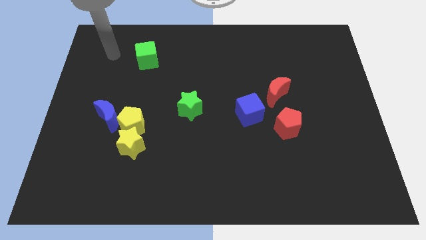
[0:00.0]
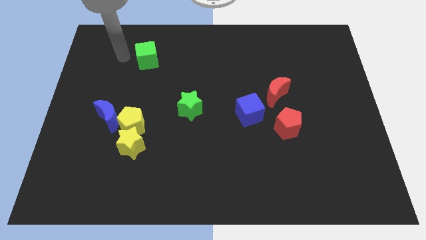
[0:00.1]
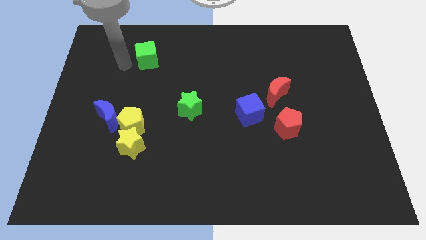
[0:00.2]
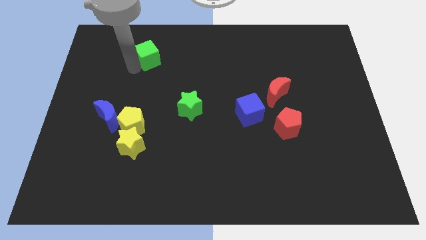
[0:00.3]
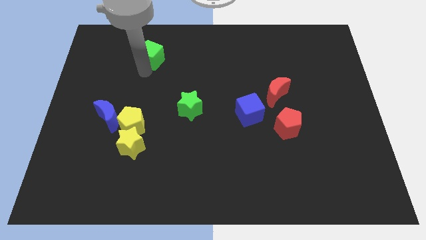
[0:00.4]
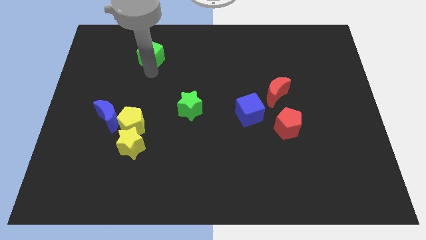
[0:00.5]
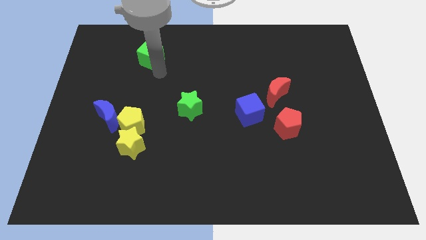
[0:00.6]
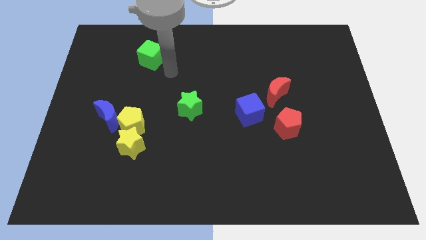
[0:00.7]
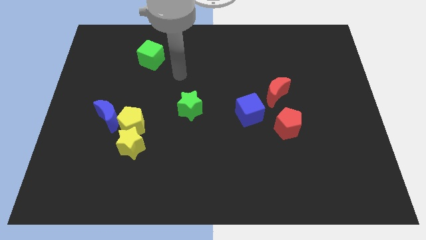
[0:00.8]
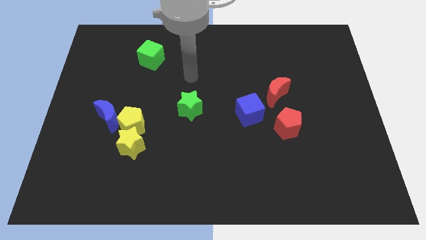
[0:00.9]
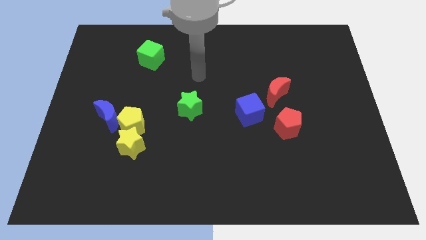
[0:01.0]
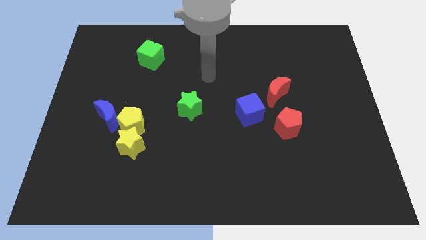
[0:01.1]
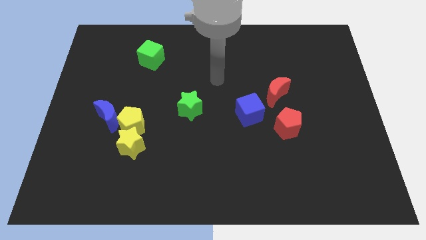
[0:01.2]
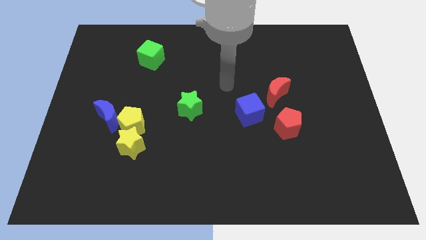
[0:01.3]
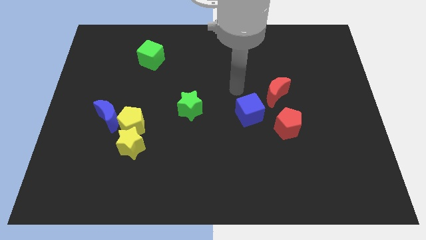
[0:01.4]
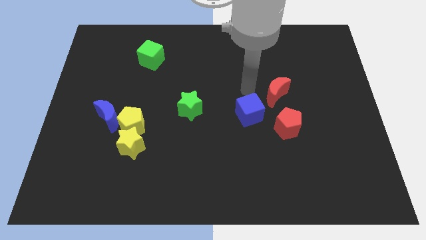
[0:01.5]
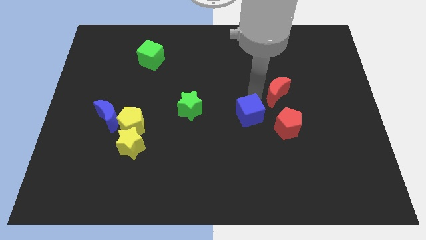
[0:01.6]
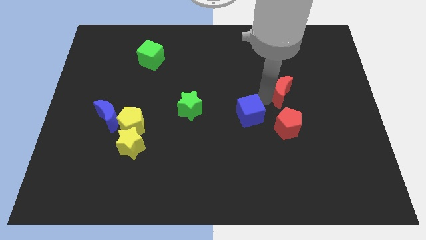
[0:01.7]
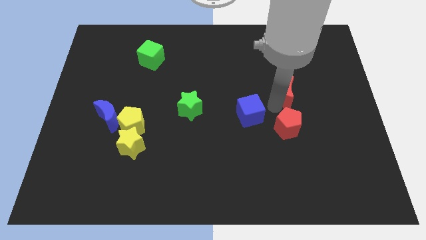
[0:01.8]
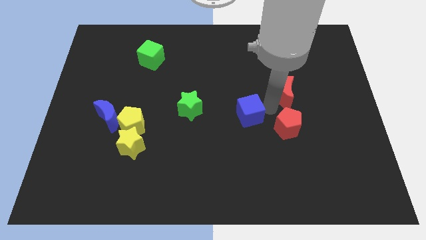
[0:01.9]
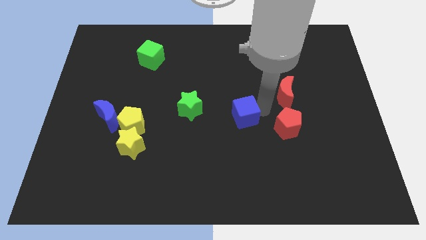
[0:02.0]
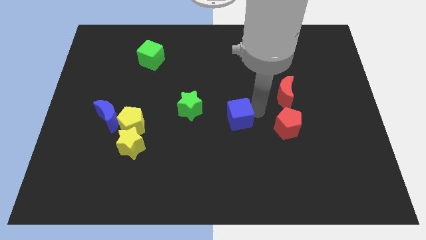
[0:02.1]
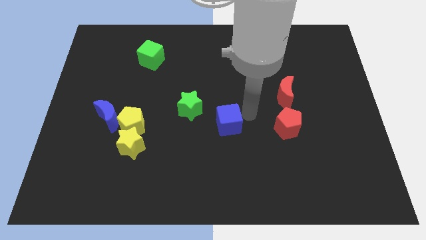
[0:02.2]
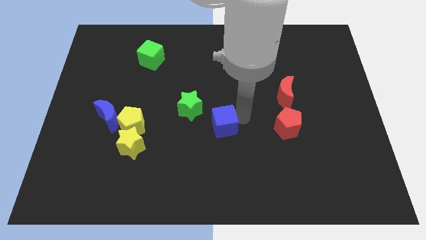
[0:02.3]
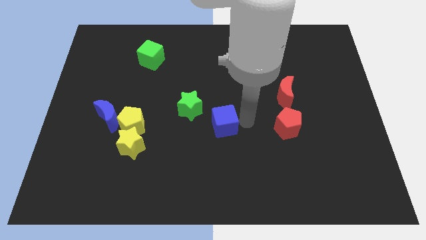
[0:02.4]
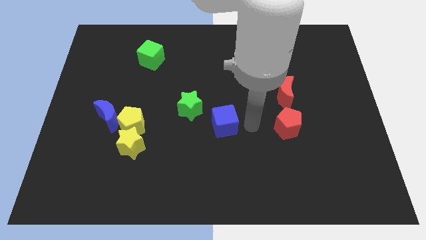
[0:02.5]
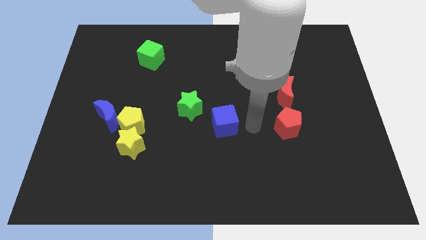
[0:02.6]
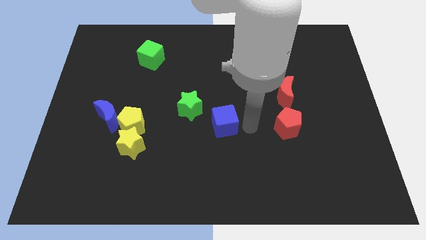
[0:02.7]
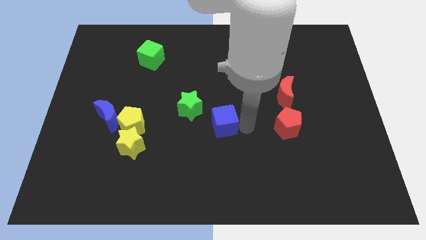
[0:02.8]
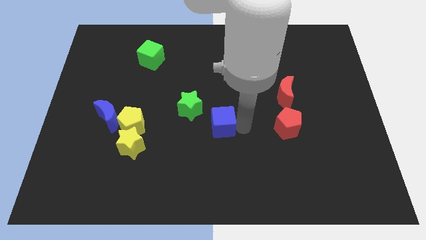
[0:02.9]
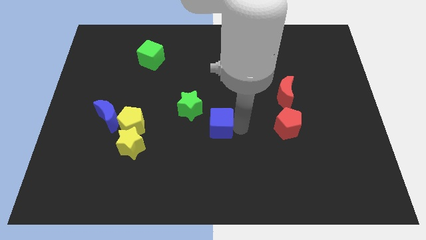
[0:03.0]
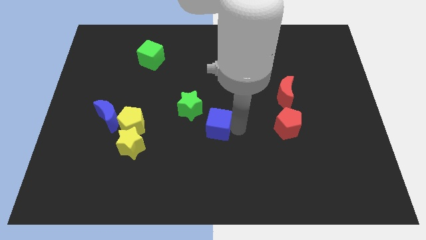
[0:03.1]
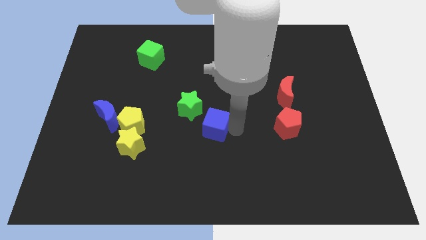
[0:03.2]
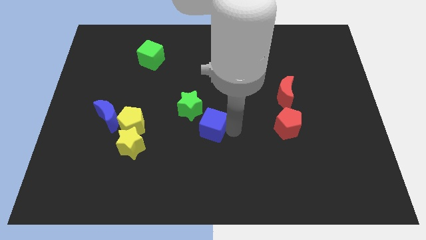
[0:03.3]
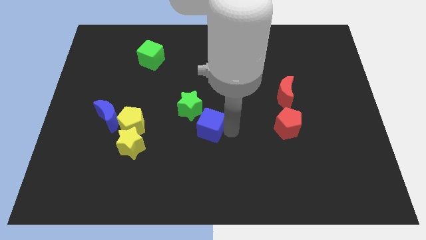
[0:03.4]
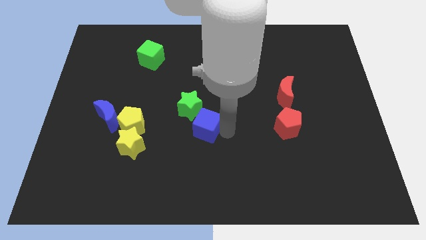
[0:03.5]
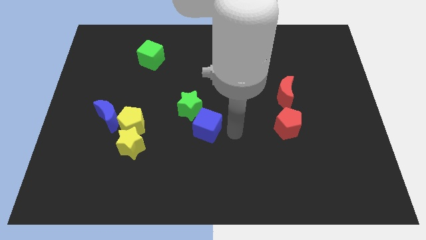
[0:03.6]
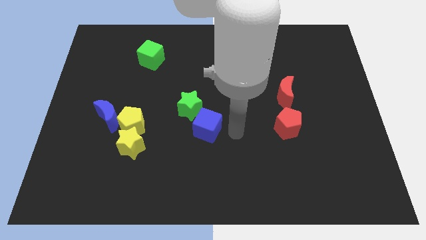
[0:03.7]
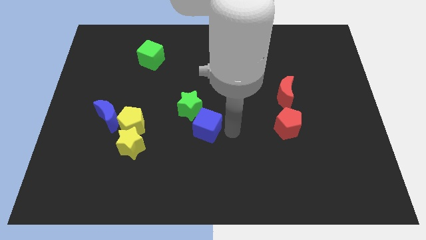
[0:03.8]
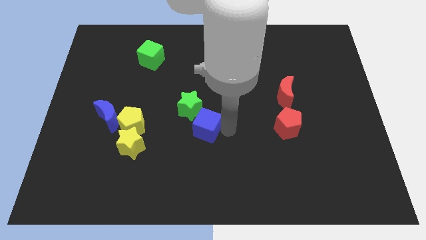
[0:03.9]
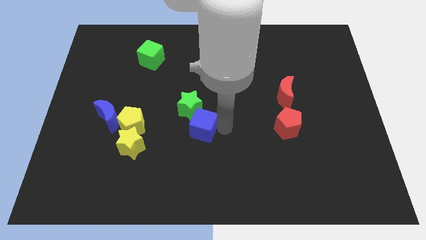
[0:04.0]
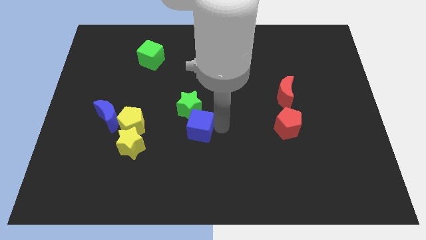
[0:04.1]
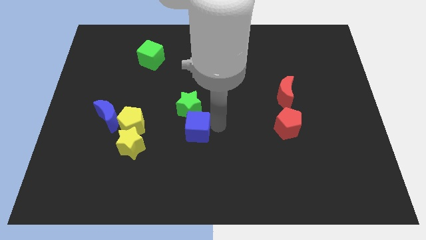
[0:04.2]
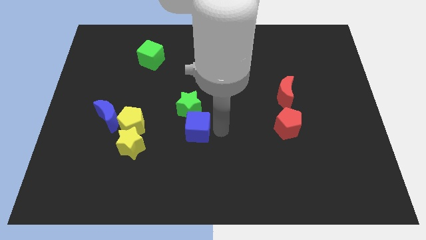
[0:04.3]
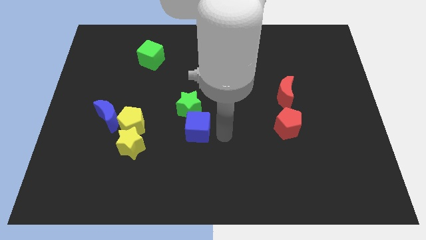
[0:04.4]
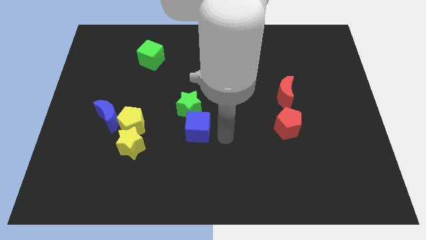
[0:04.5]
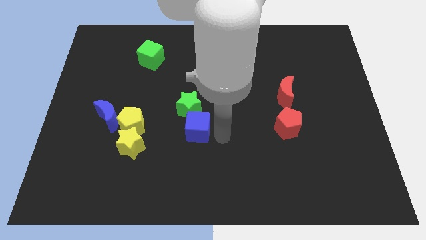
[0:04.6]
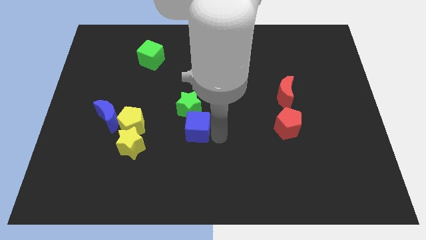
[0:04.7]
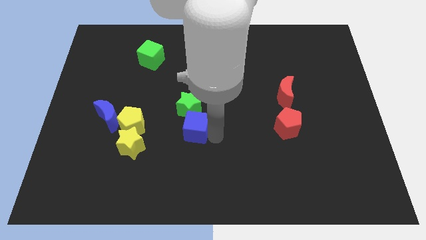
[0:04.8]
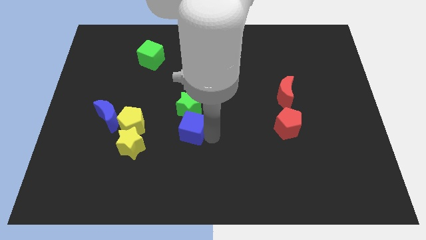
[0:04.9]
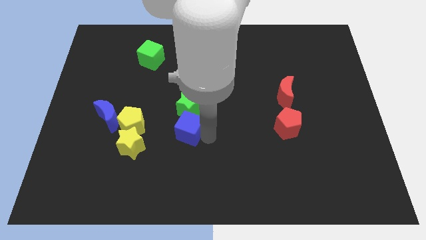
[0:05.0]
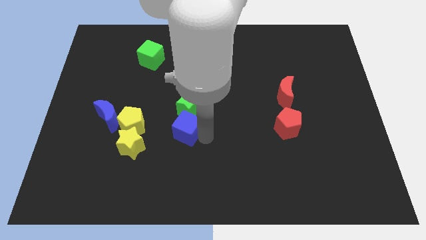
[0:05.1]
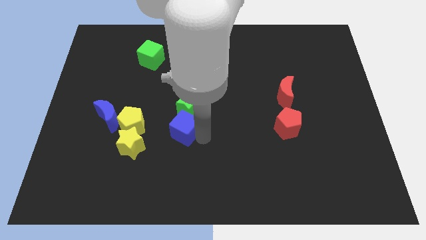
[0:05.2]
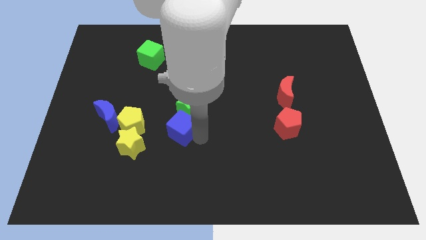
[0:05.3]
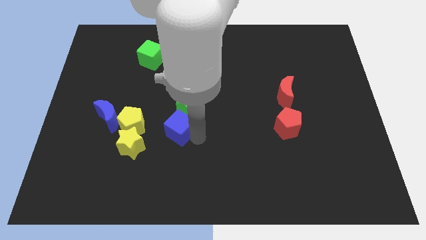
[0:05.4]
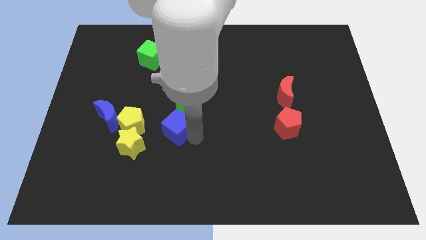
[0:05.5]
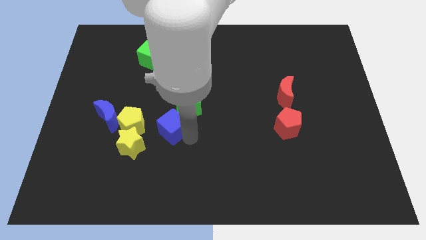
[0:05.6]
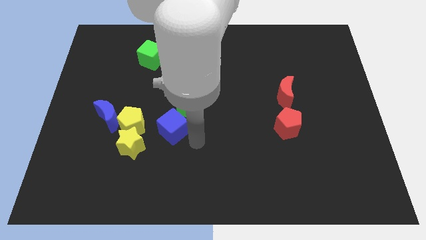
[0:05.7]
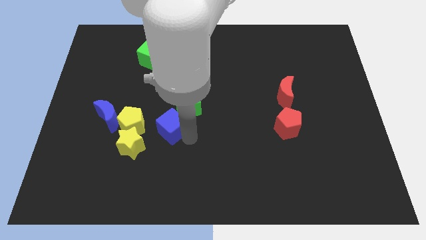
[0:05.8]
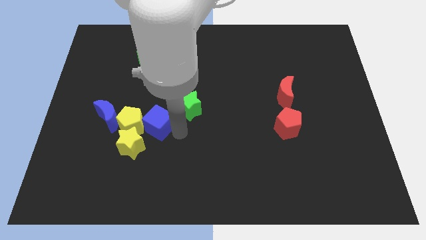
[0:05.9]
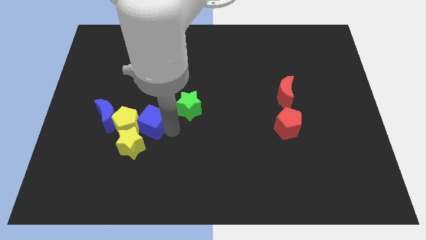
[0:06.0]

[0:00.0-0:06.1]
put the blue cube to the top of the yellow star

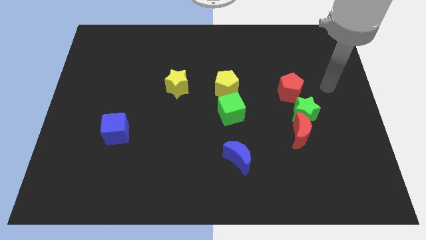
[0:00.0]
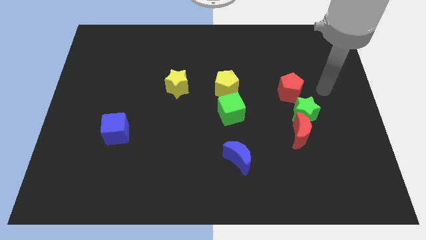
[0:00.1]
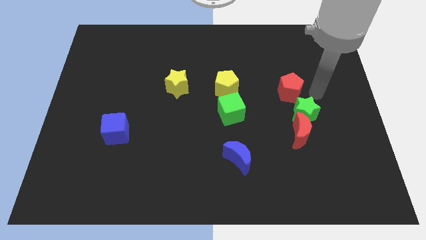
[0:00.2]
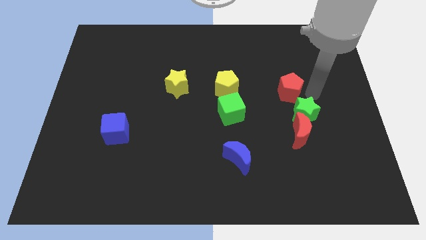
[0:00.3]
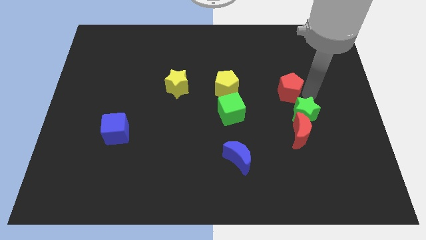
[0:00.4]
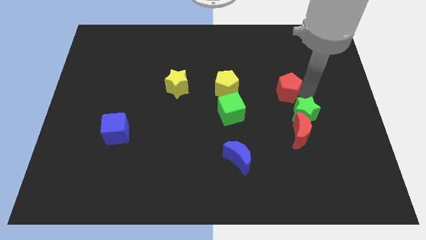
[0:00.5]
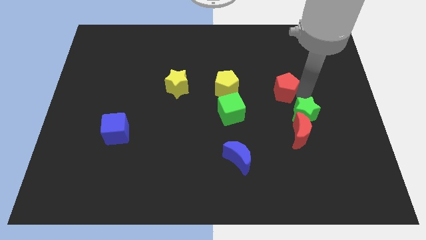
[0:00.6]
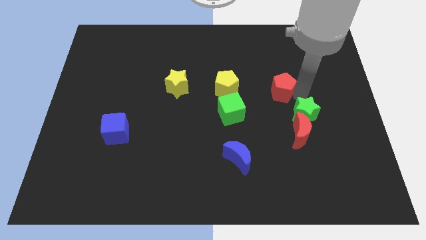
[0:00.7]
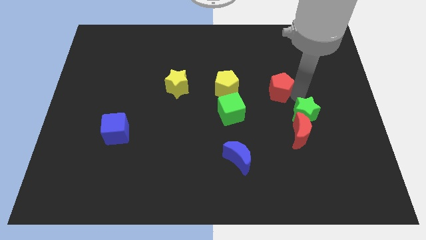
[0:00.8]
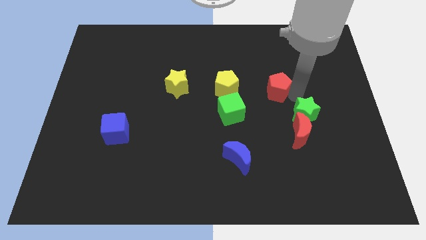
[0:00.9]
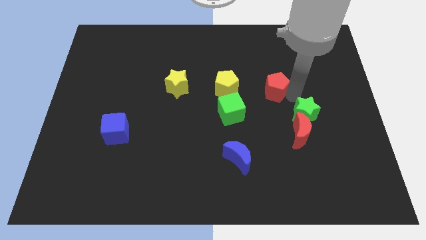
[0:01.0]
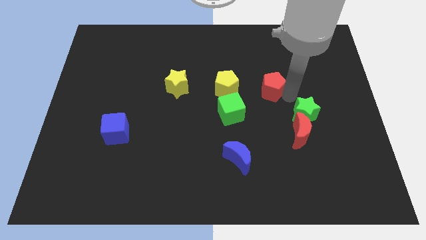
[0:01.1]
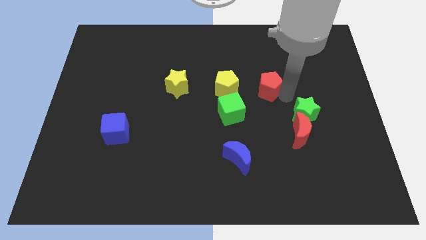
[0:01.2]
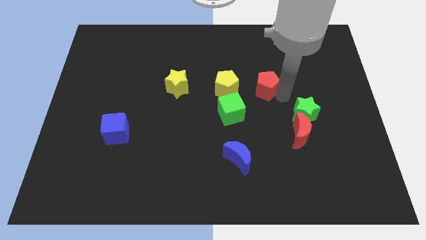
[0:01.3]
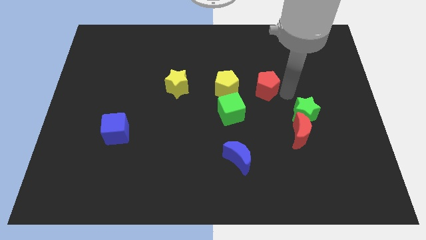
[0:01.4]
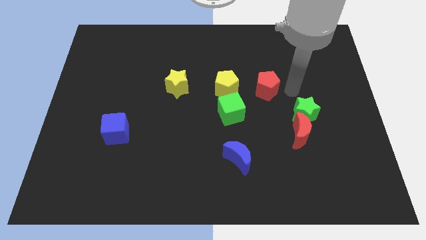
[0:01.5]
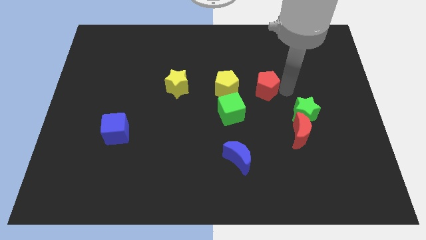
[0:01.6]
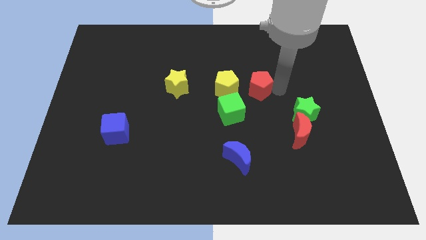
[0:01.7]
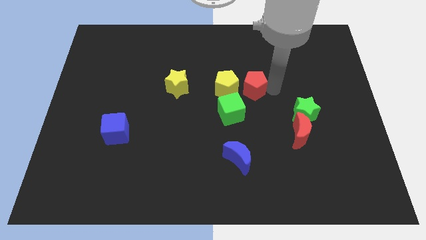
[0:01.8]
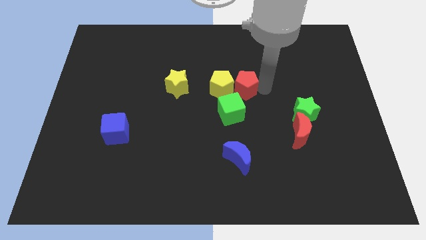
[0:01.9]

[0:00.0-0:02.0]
push the red pentagon to the right of the yellow star

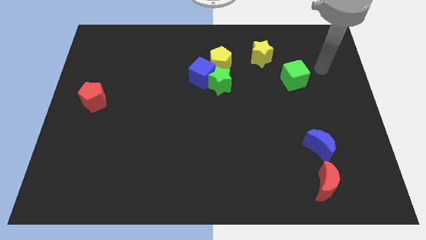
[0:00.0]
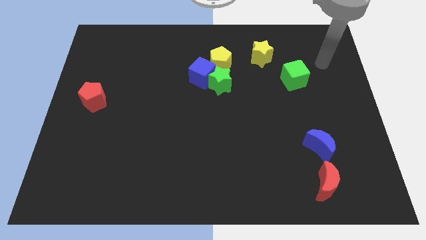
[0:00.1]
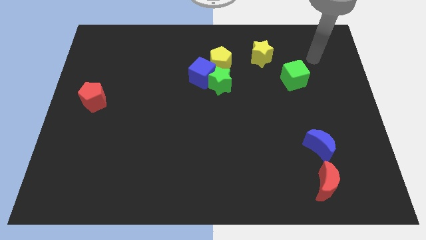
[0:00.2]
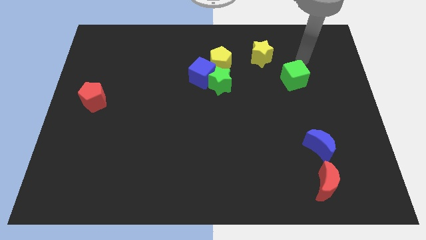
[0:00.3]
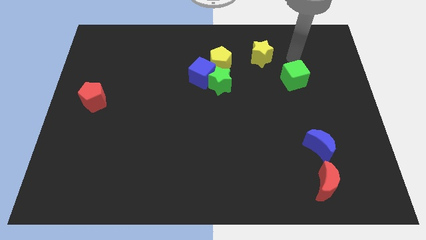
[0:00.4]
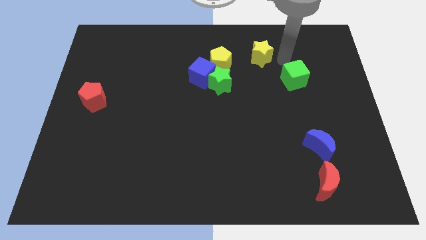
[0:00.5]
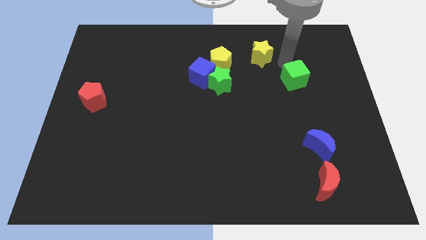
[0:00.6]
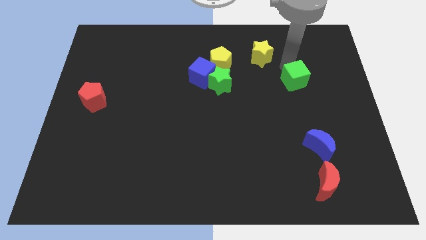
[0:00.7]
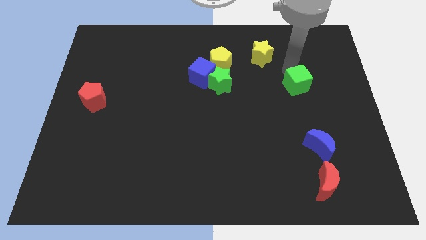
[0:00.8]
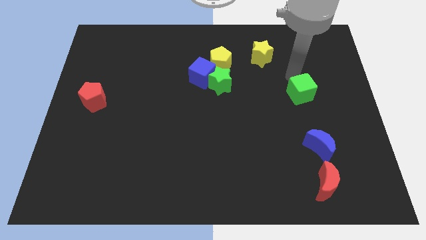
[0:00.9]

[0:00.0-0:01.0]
move the green cube above the blue moon
